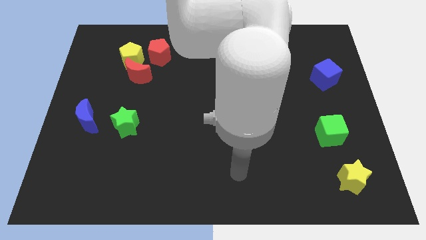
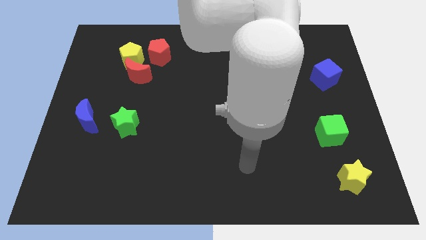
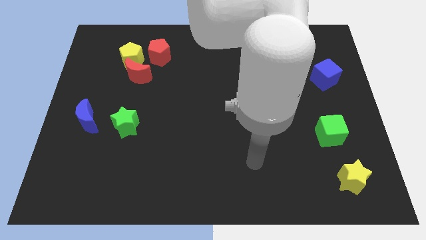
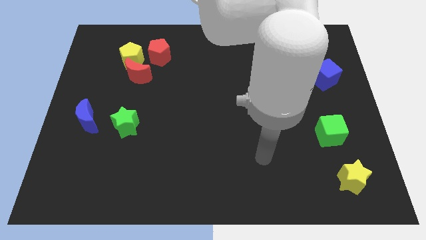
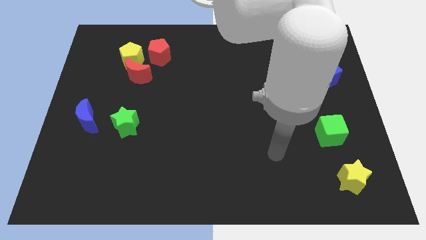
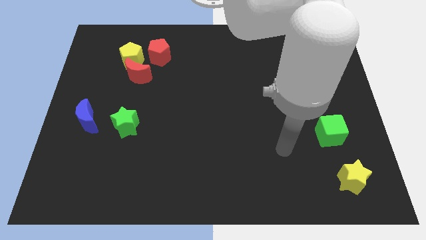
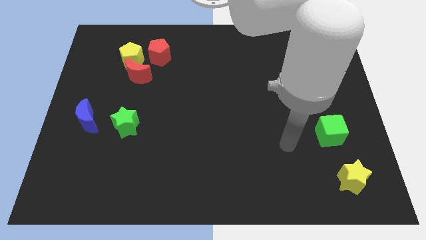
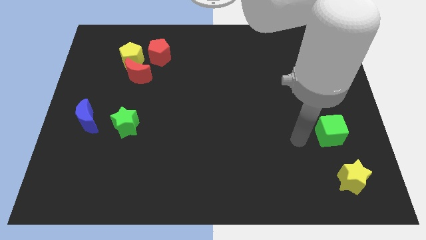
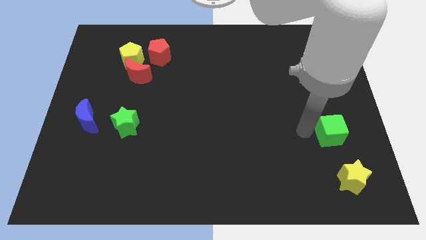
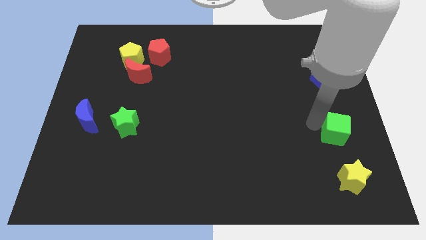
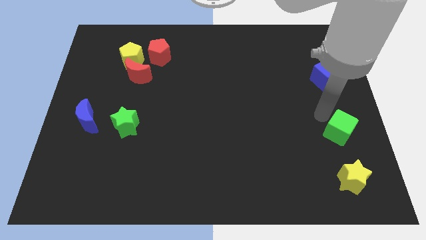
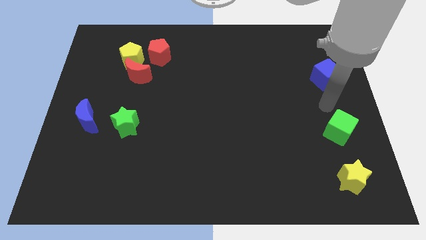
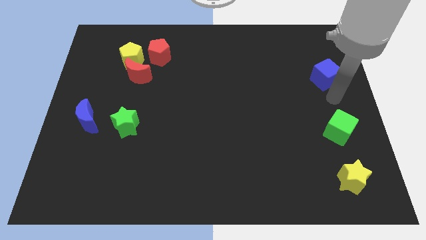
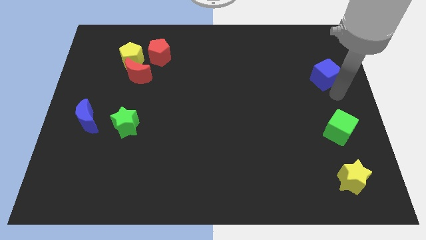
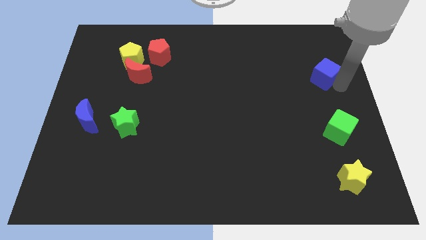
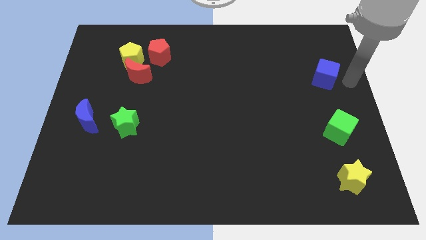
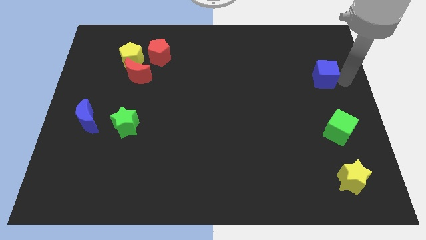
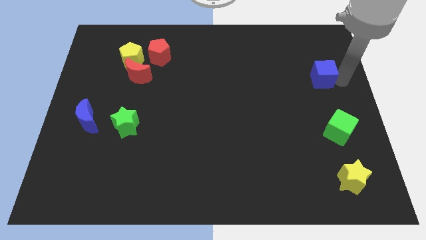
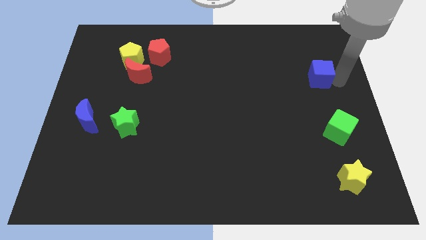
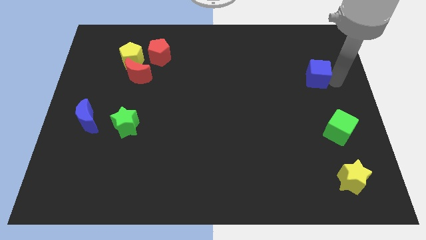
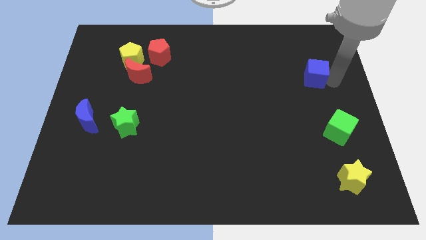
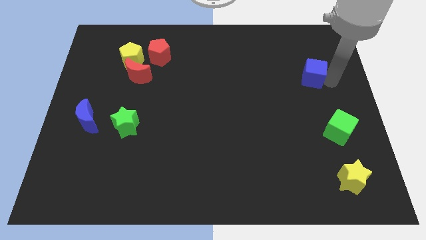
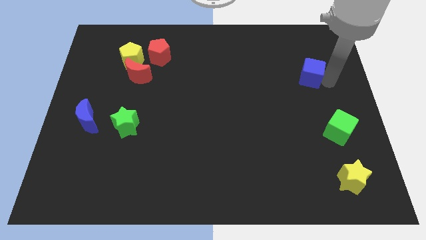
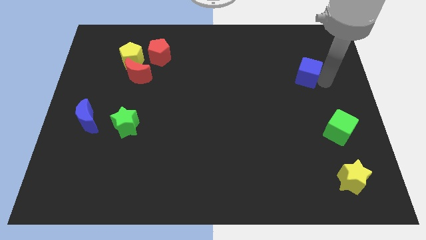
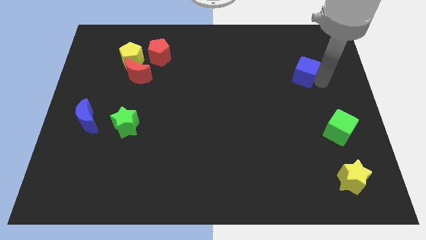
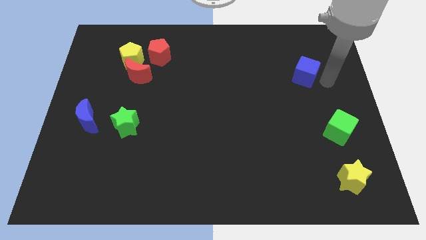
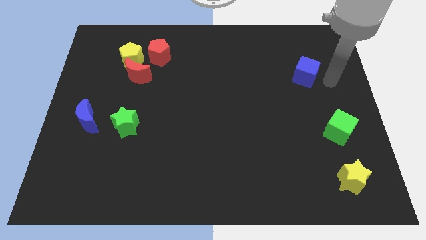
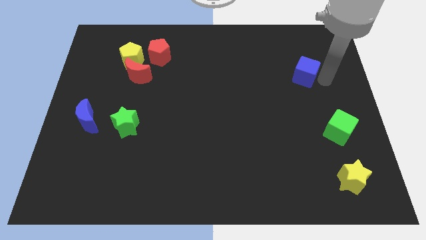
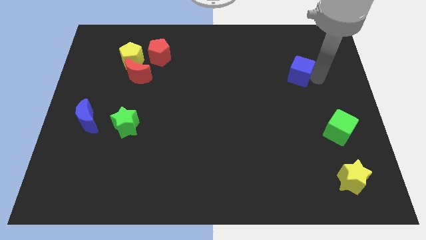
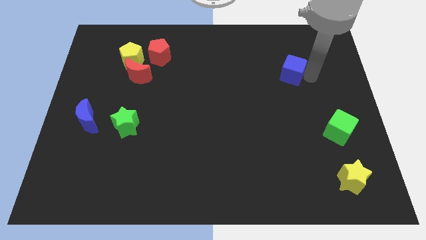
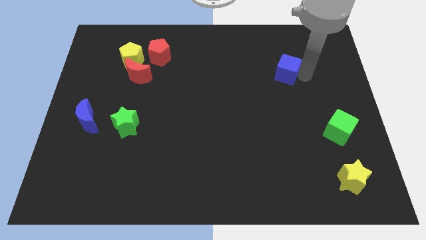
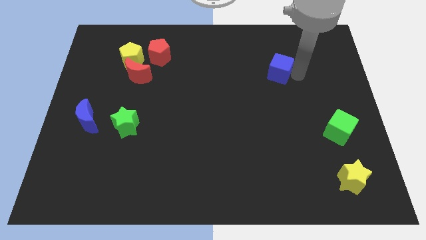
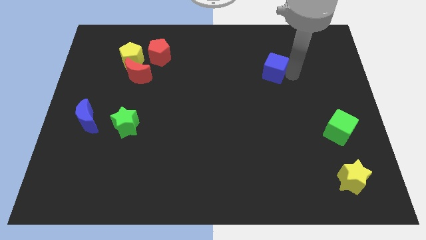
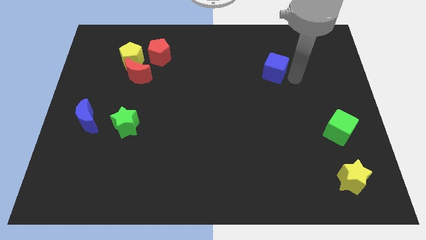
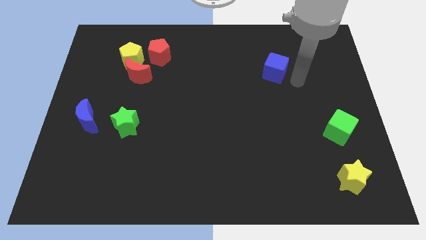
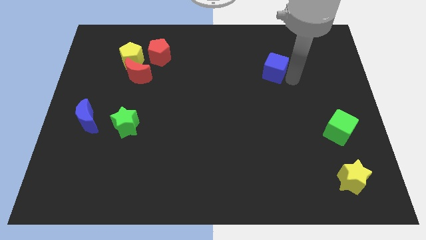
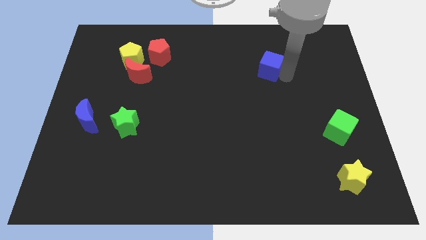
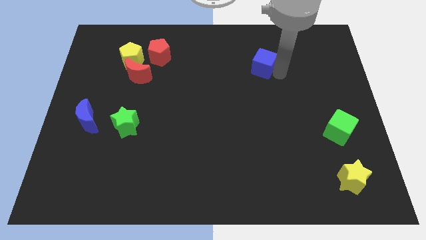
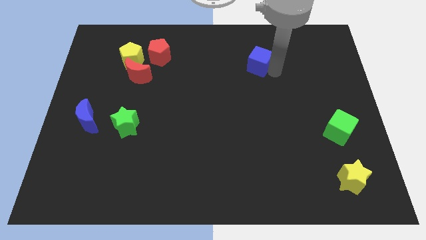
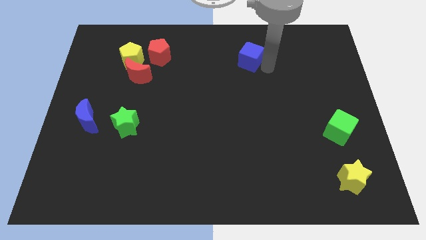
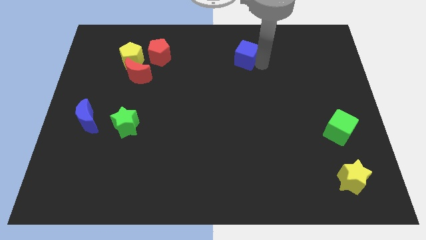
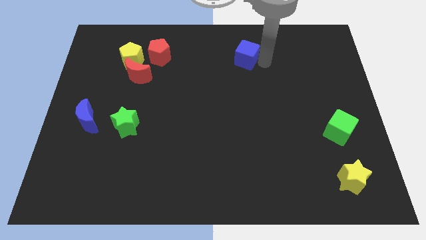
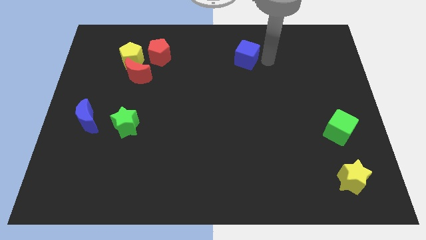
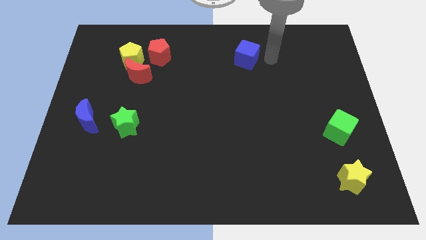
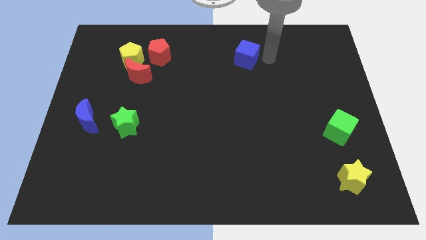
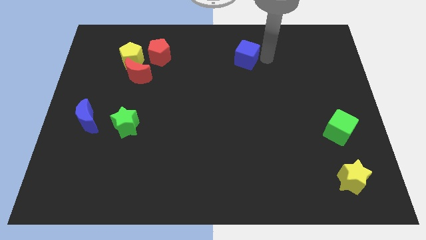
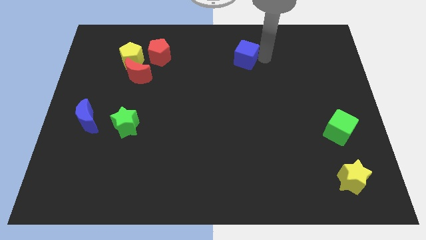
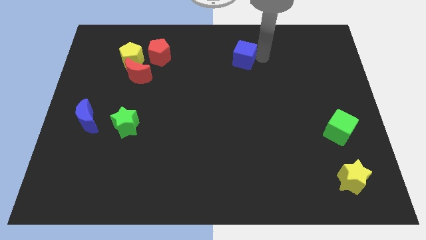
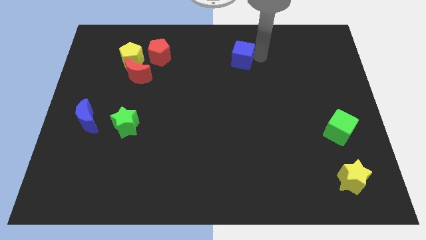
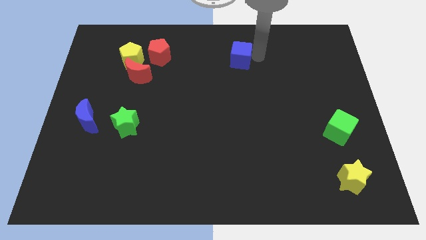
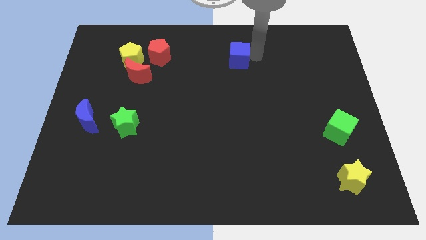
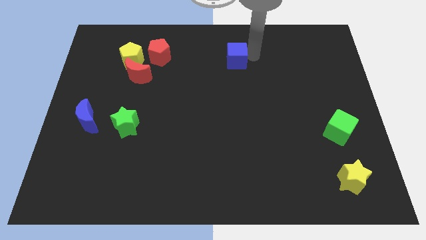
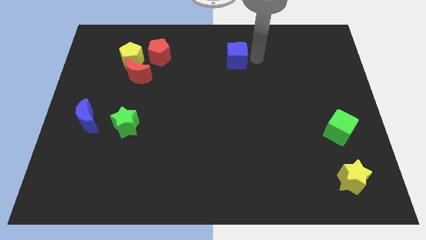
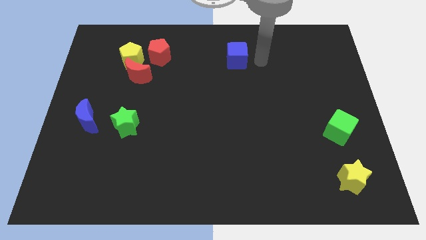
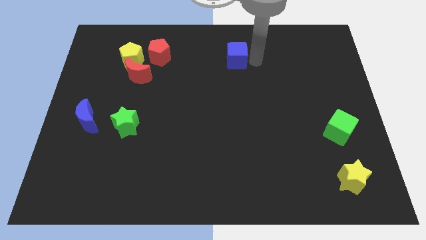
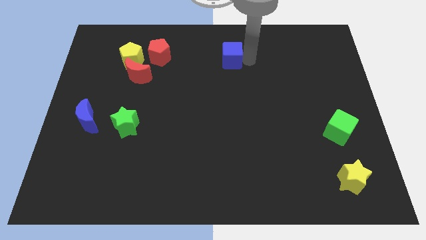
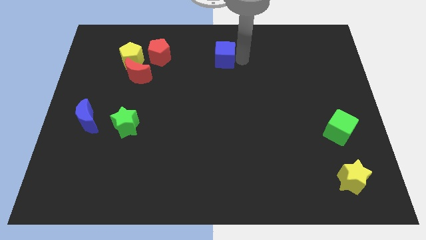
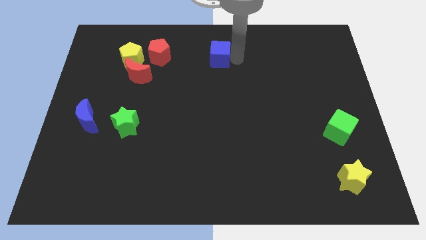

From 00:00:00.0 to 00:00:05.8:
push the blue cube to the right side of the red pentagon

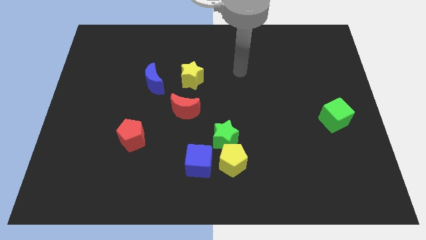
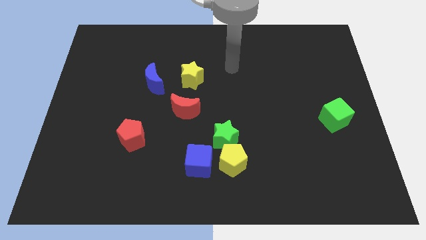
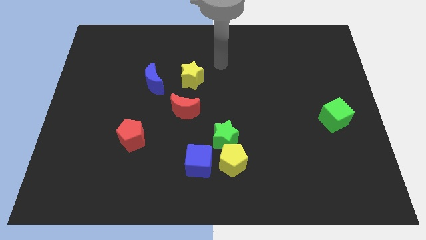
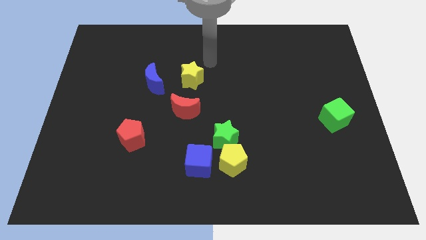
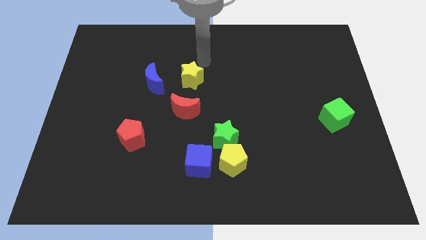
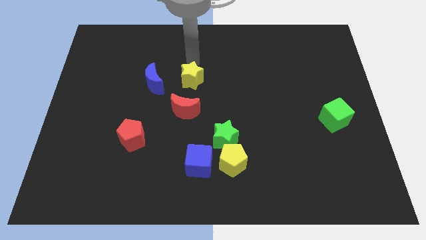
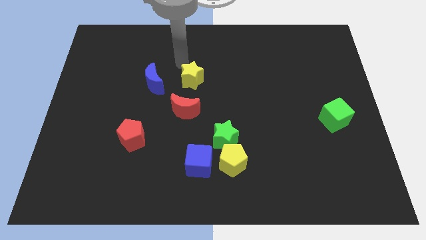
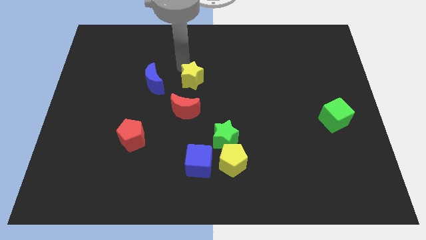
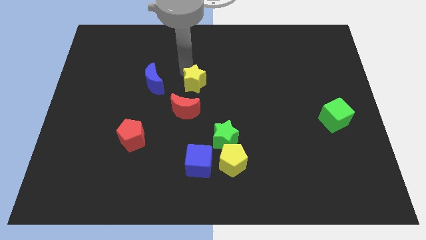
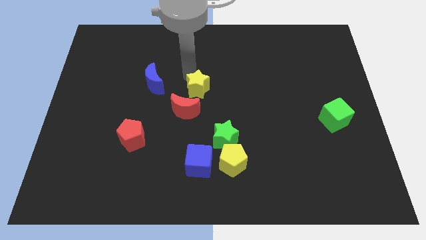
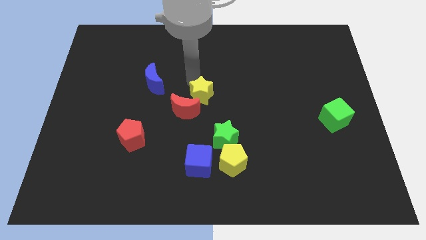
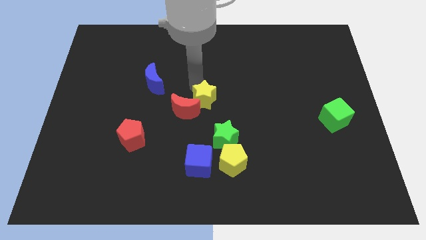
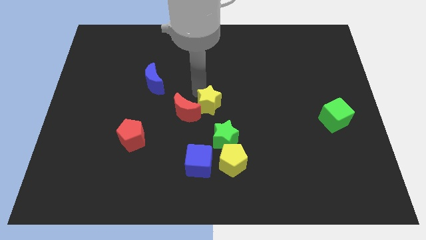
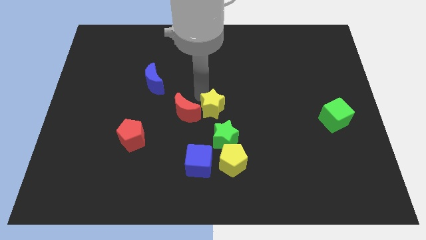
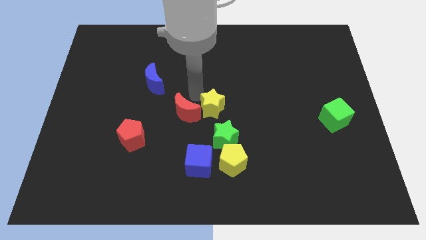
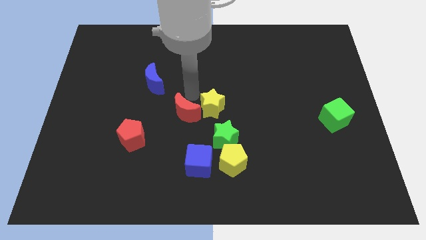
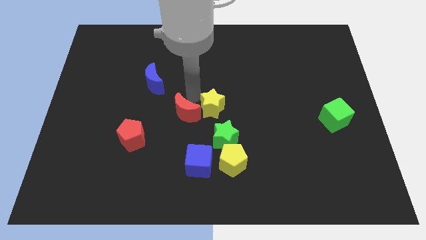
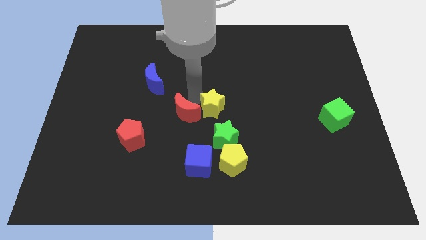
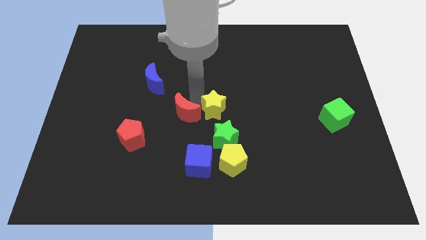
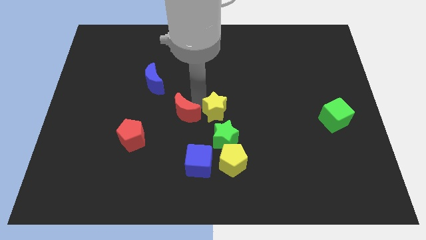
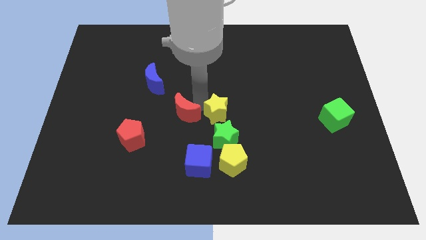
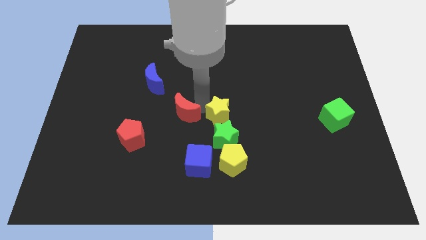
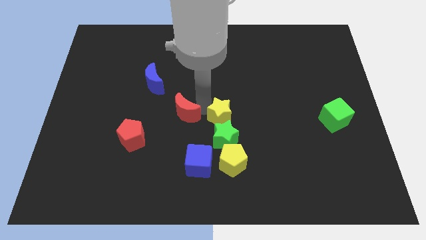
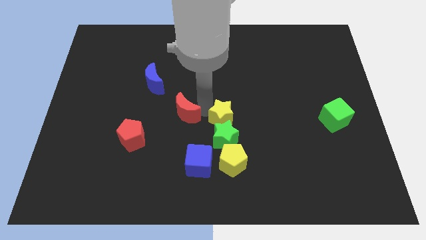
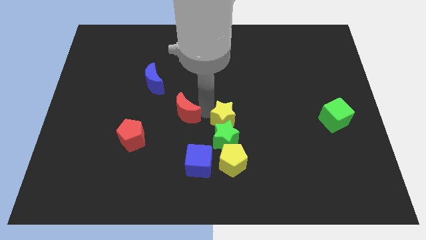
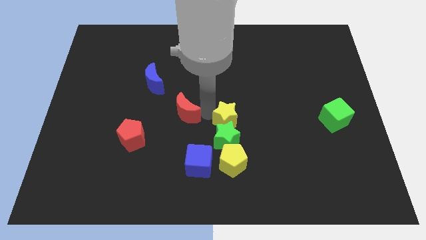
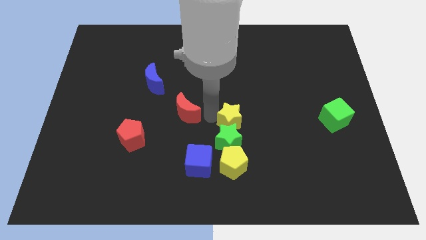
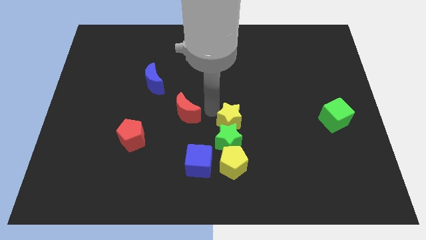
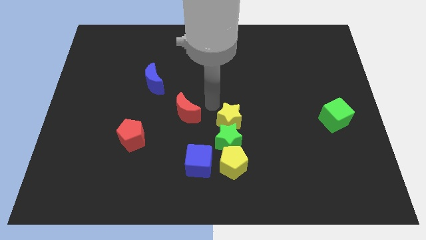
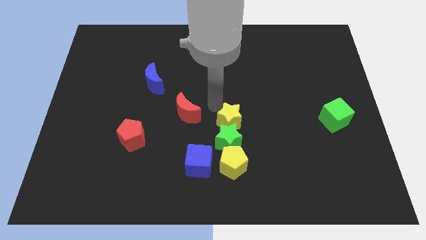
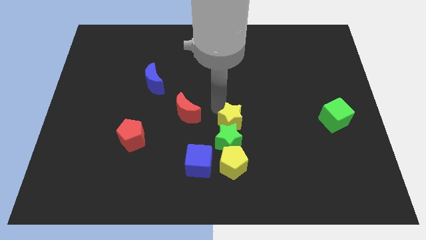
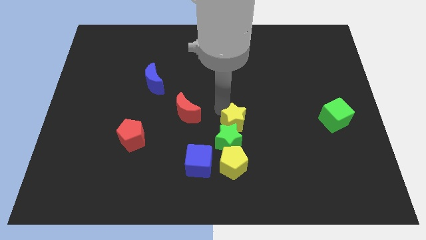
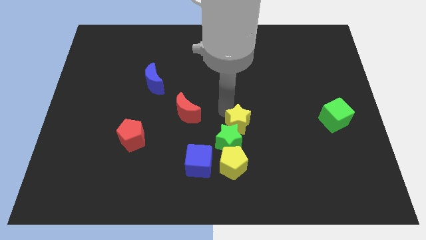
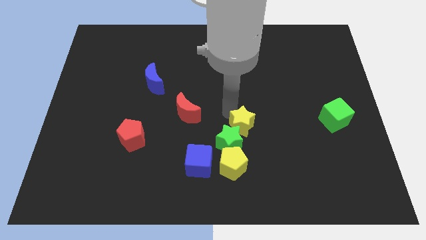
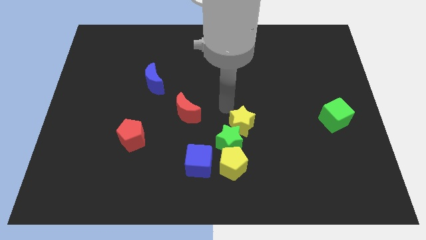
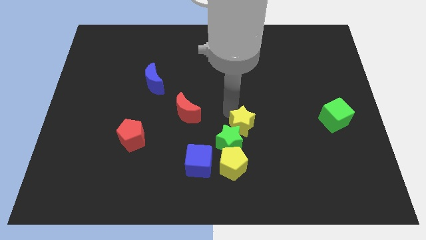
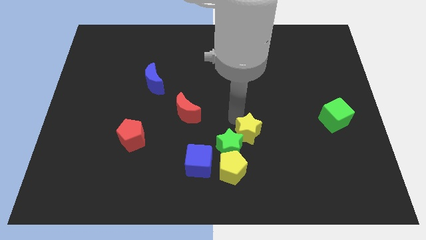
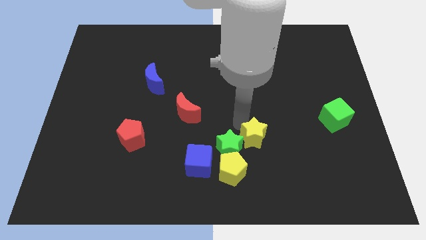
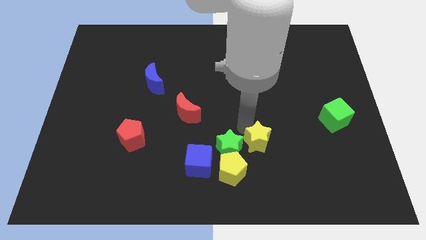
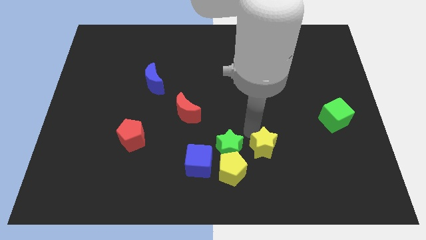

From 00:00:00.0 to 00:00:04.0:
put the yellow star just right of the blue cube
